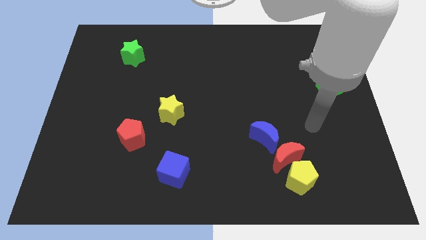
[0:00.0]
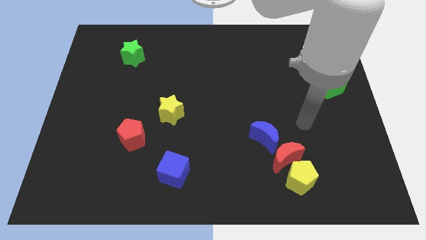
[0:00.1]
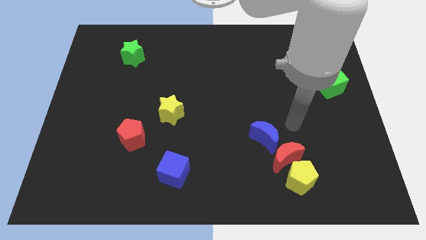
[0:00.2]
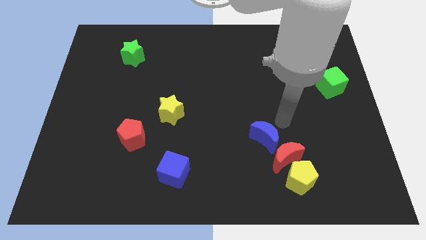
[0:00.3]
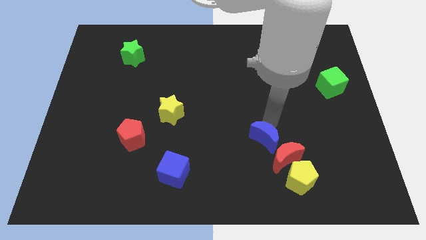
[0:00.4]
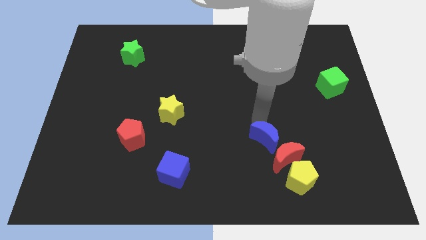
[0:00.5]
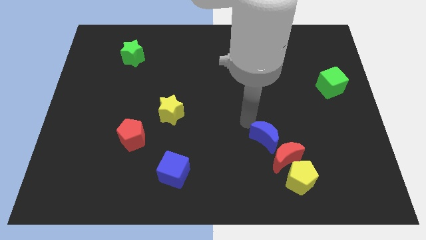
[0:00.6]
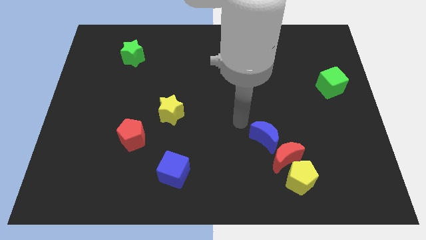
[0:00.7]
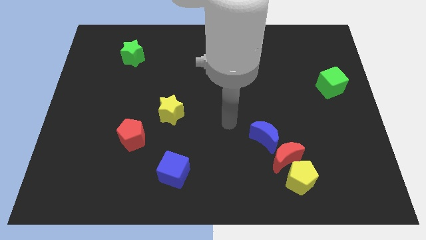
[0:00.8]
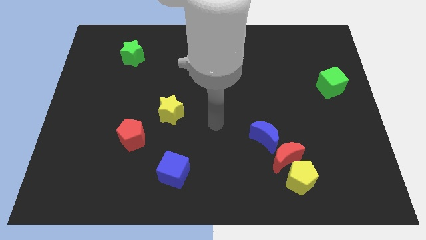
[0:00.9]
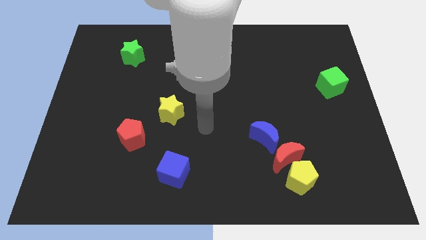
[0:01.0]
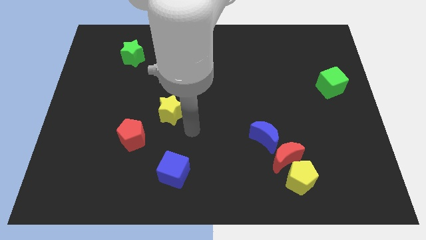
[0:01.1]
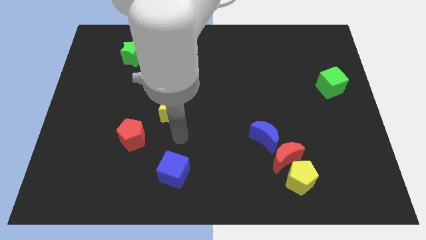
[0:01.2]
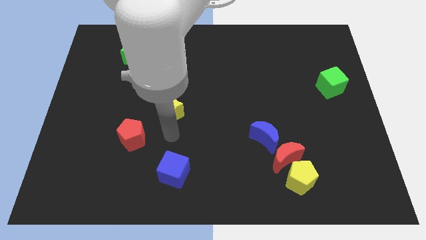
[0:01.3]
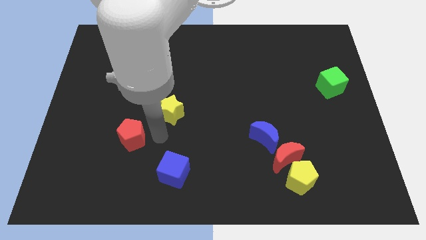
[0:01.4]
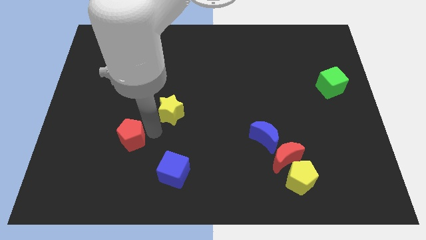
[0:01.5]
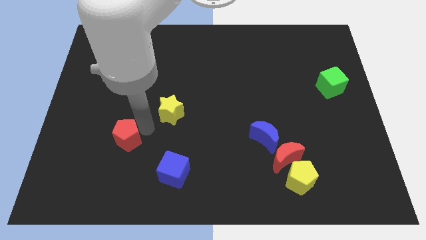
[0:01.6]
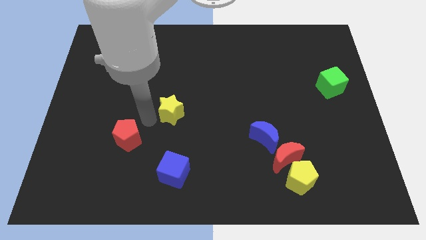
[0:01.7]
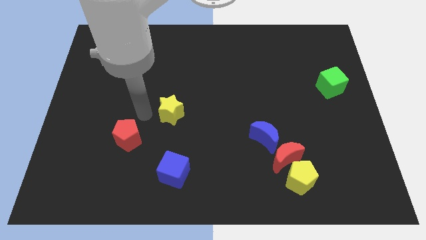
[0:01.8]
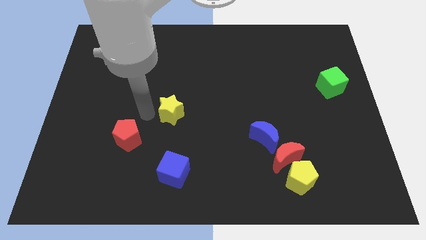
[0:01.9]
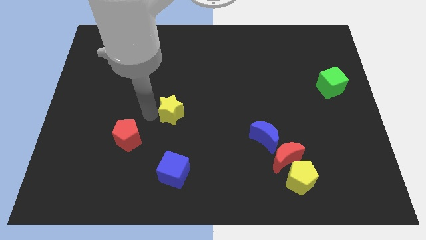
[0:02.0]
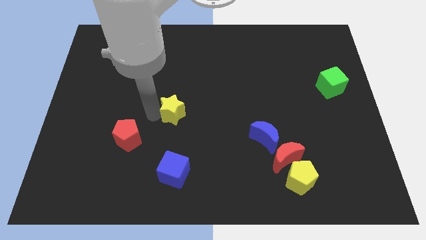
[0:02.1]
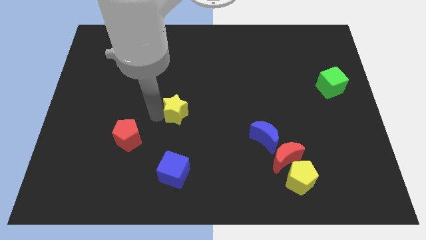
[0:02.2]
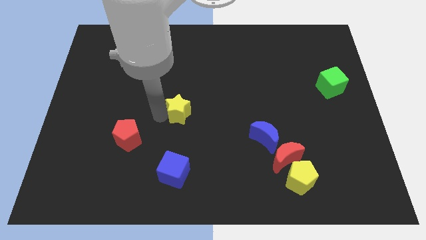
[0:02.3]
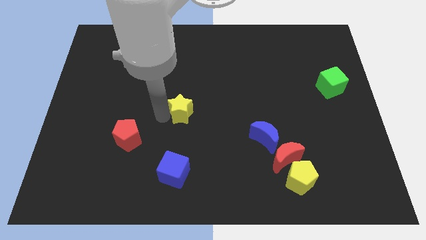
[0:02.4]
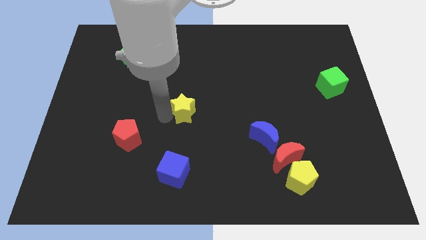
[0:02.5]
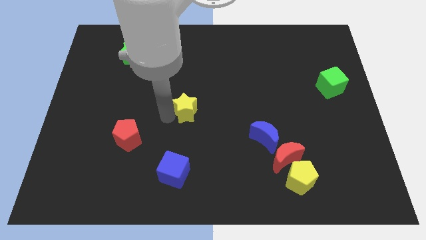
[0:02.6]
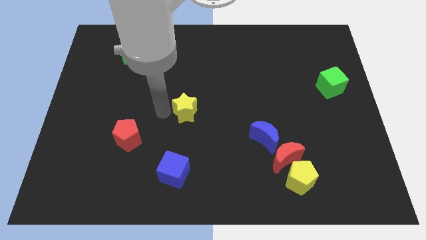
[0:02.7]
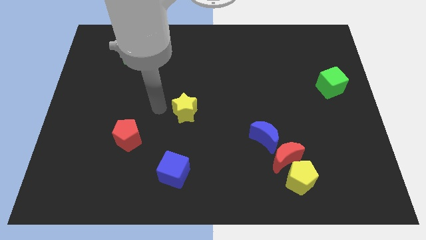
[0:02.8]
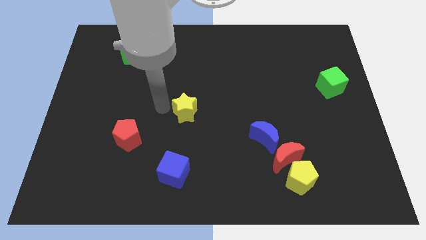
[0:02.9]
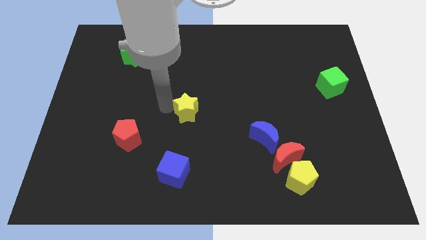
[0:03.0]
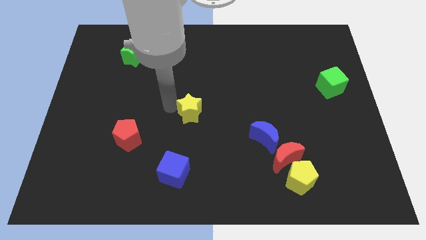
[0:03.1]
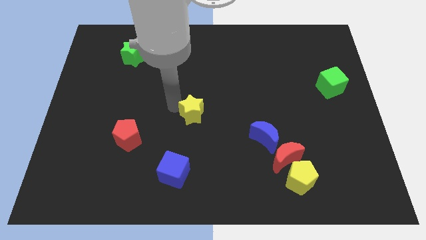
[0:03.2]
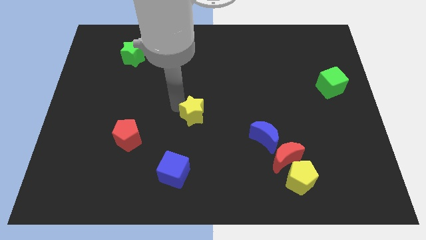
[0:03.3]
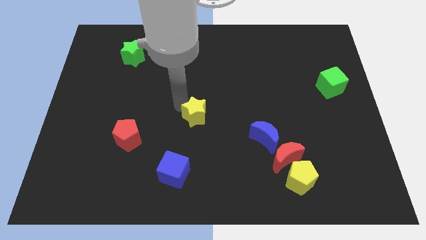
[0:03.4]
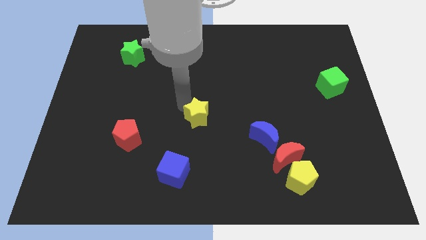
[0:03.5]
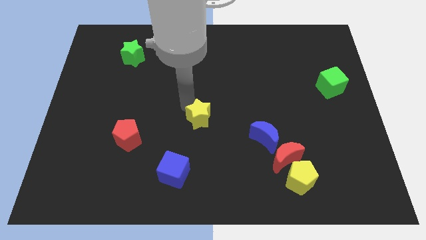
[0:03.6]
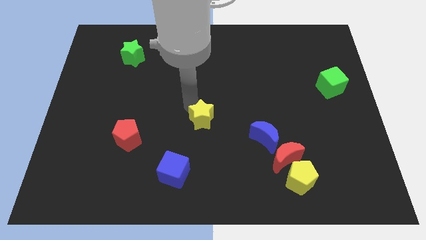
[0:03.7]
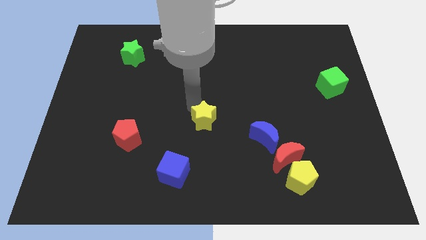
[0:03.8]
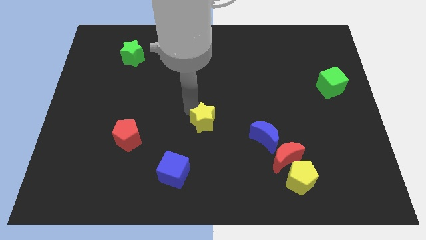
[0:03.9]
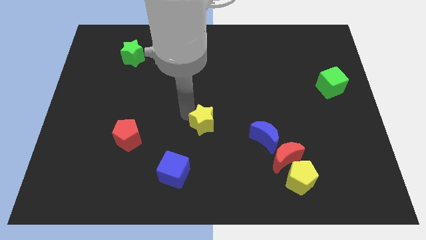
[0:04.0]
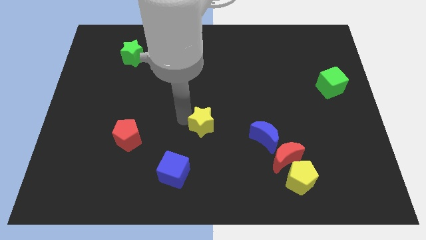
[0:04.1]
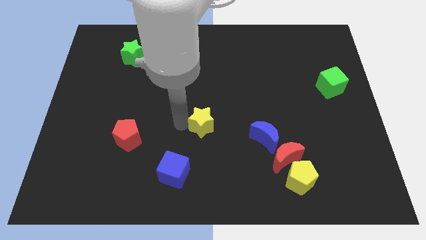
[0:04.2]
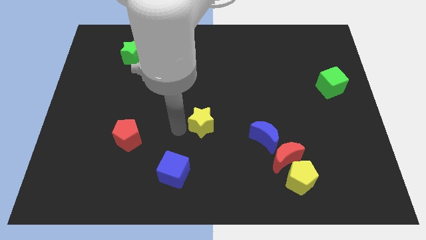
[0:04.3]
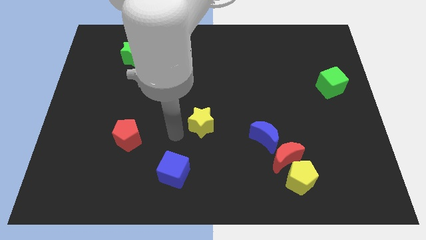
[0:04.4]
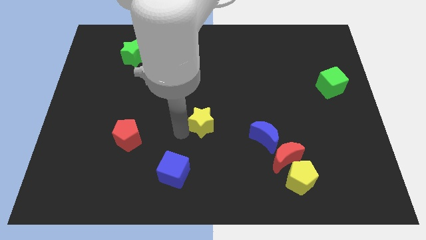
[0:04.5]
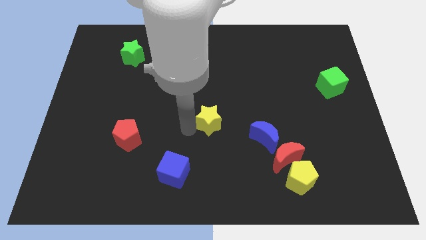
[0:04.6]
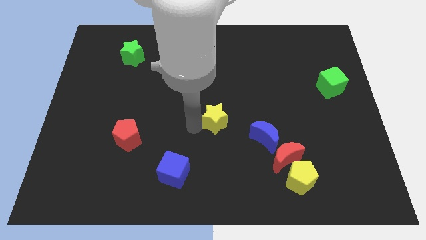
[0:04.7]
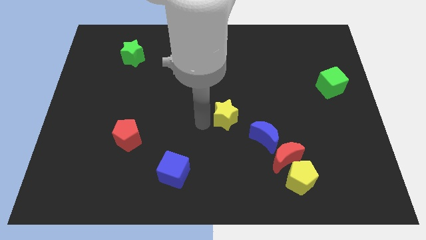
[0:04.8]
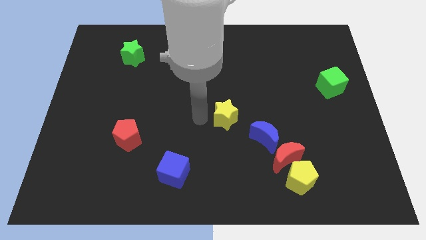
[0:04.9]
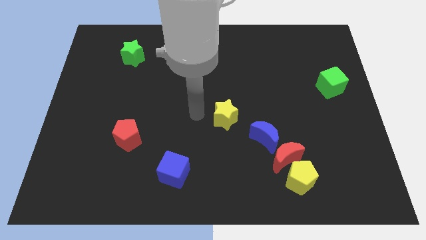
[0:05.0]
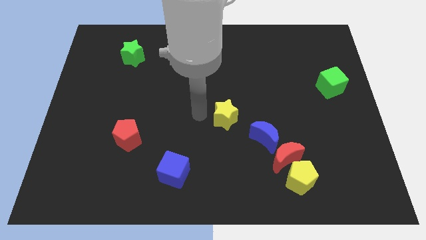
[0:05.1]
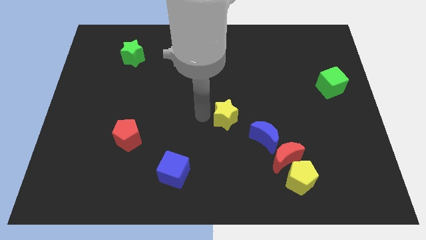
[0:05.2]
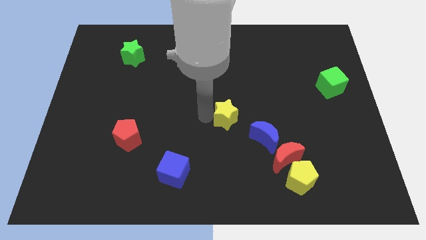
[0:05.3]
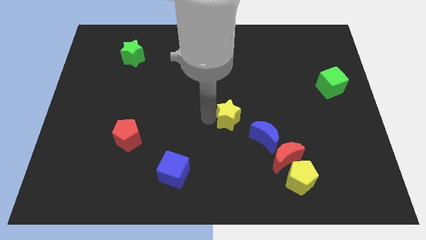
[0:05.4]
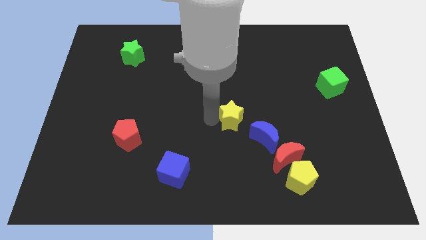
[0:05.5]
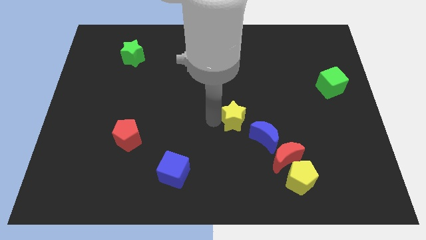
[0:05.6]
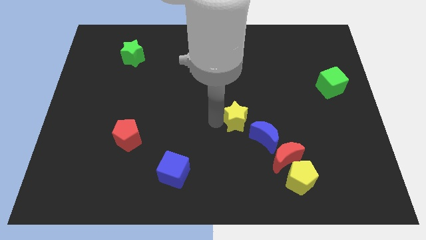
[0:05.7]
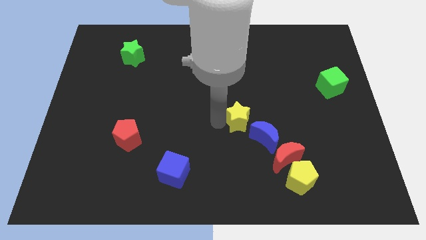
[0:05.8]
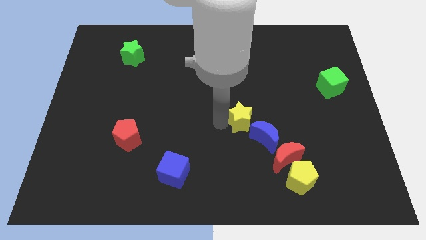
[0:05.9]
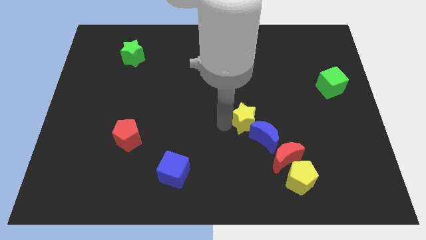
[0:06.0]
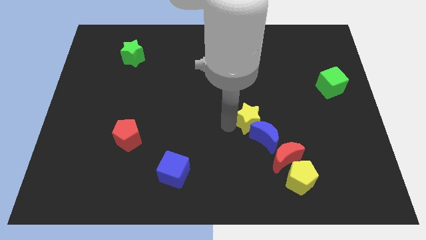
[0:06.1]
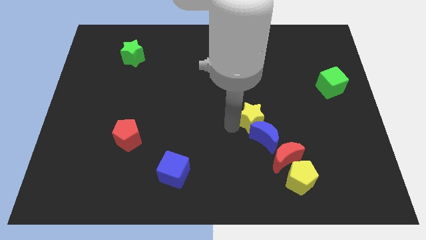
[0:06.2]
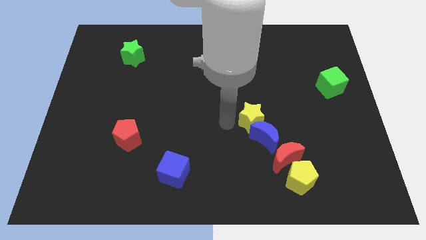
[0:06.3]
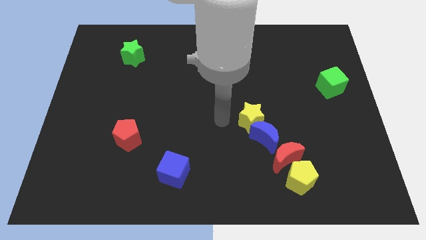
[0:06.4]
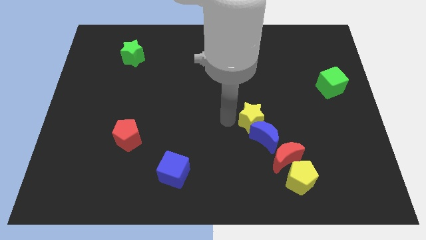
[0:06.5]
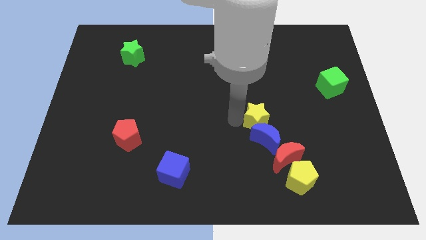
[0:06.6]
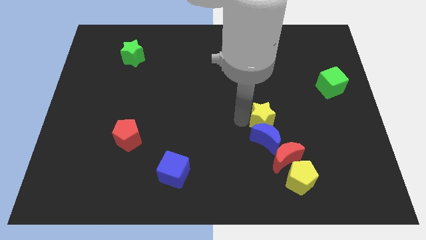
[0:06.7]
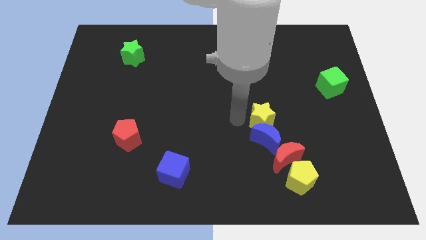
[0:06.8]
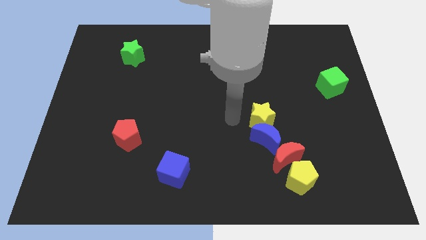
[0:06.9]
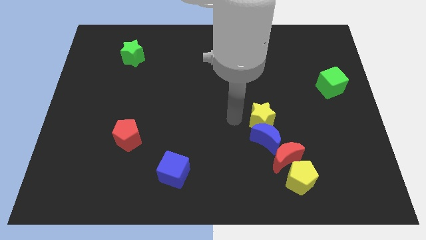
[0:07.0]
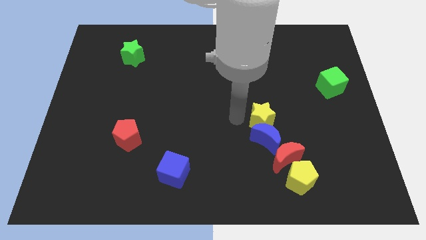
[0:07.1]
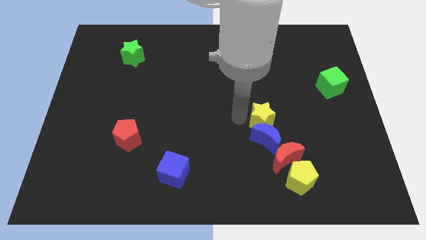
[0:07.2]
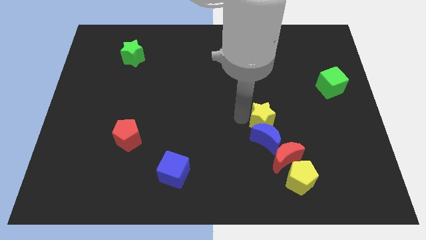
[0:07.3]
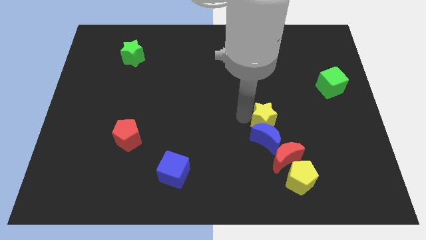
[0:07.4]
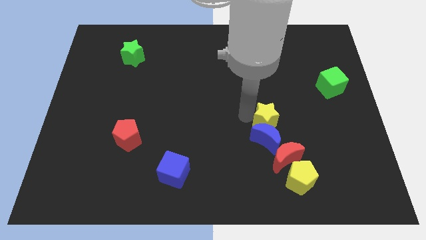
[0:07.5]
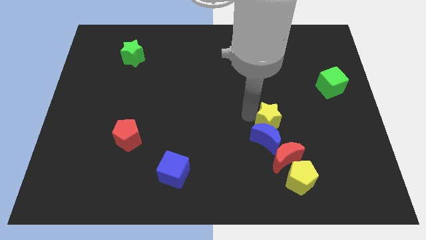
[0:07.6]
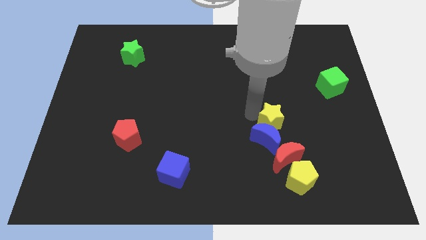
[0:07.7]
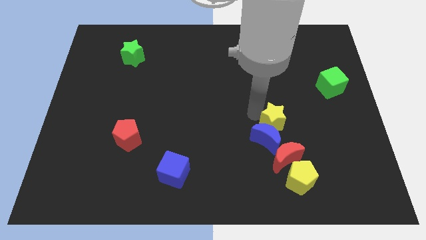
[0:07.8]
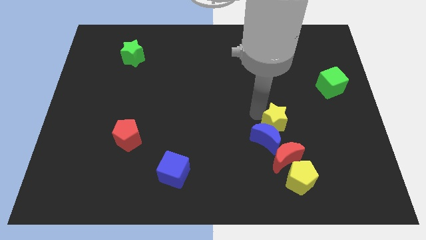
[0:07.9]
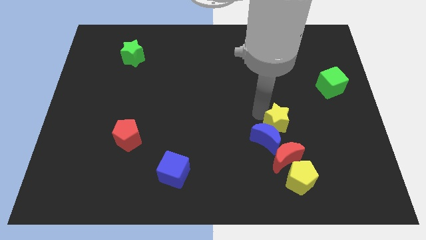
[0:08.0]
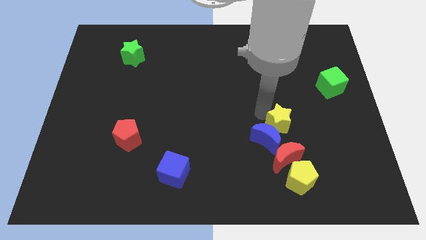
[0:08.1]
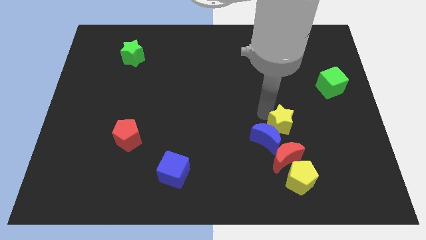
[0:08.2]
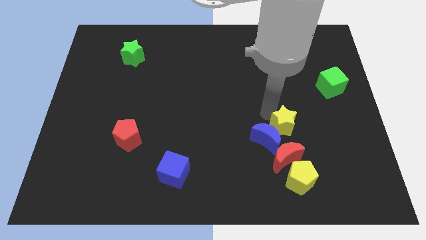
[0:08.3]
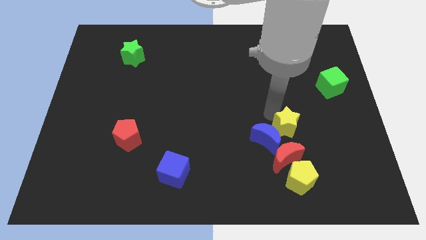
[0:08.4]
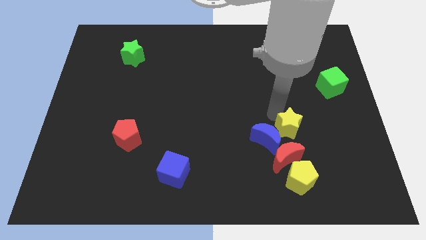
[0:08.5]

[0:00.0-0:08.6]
put the yellow star to the top right side of the red moon
